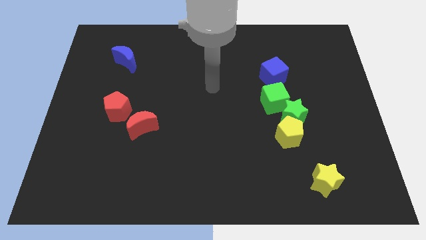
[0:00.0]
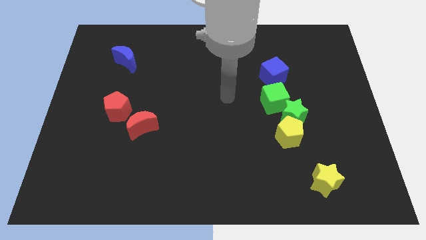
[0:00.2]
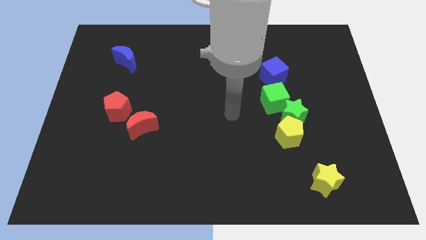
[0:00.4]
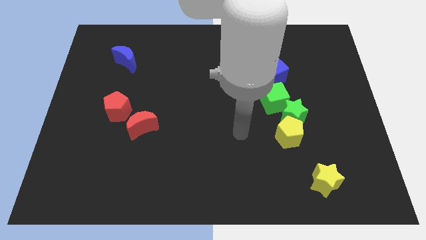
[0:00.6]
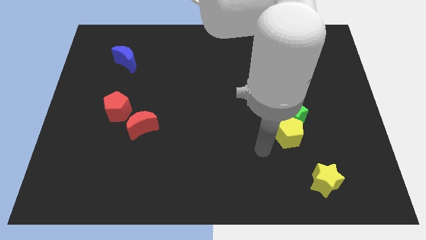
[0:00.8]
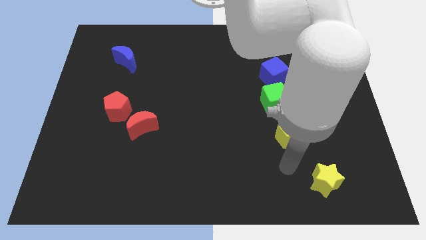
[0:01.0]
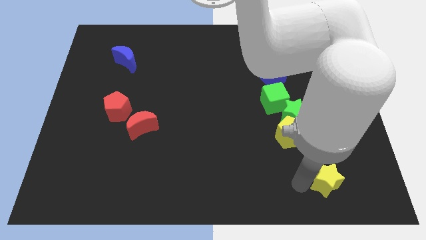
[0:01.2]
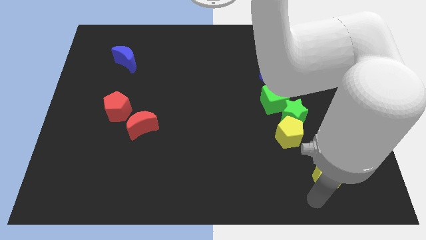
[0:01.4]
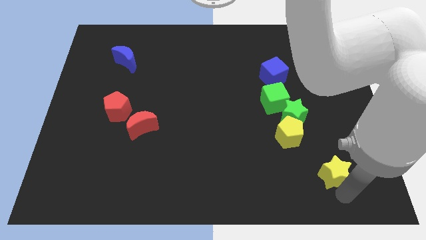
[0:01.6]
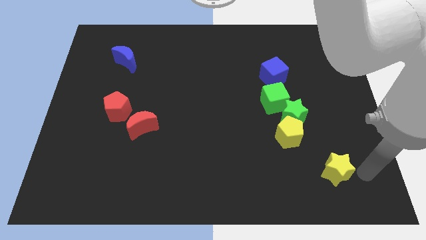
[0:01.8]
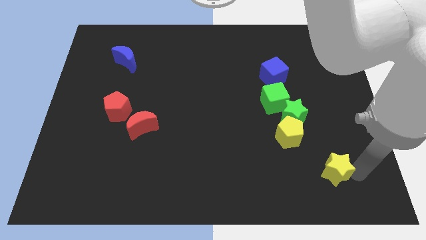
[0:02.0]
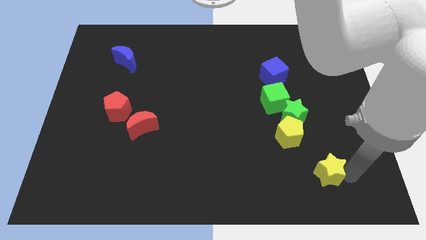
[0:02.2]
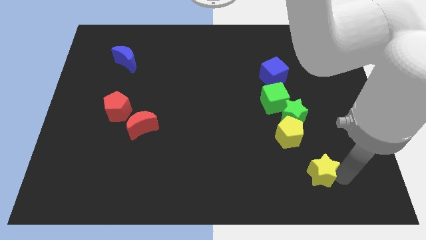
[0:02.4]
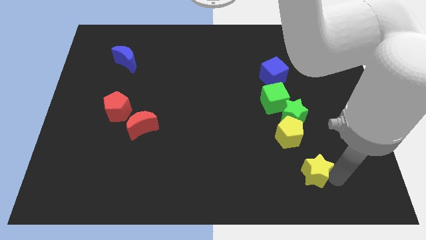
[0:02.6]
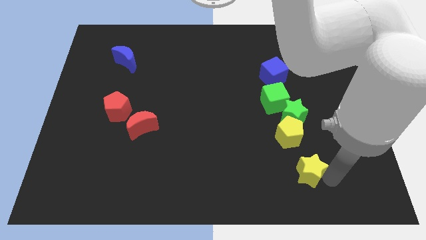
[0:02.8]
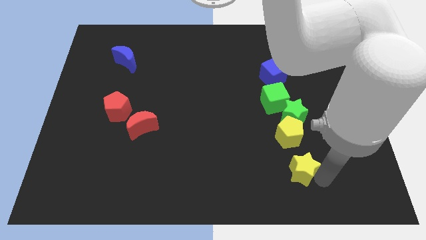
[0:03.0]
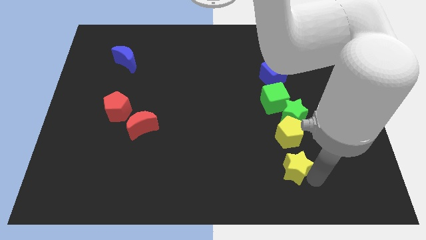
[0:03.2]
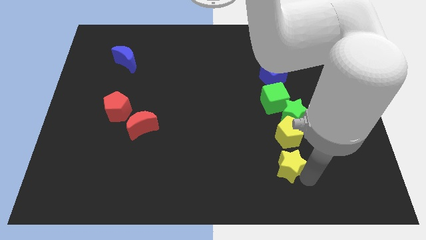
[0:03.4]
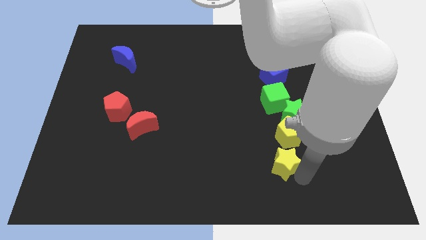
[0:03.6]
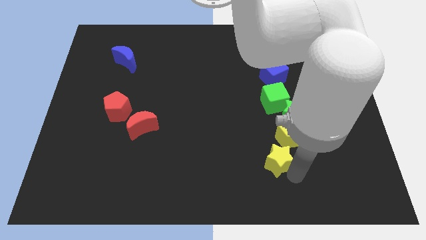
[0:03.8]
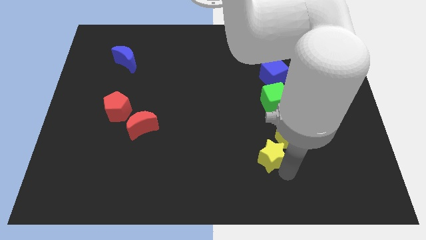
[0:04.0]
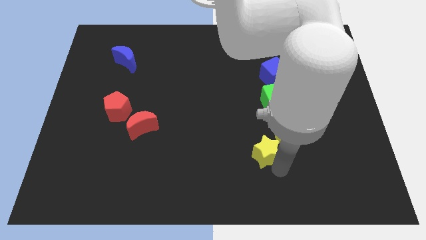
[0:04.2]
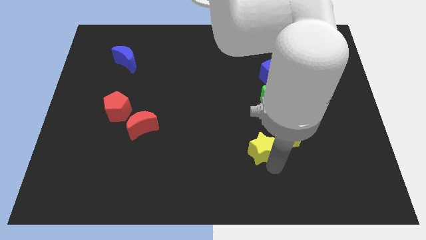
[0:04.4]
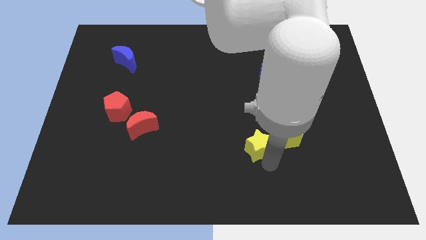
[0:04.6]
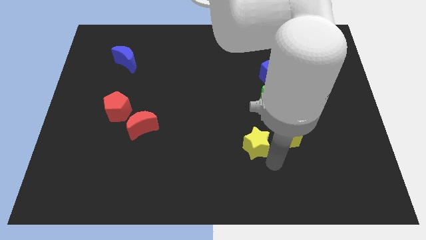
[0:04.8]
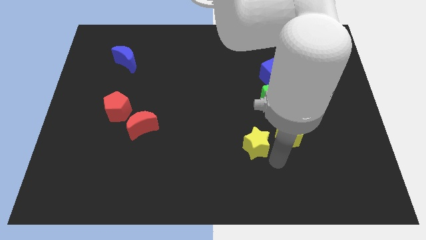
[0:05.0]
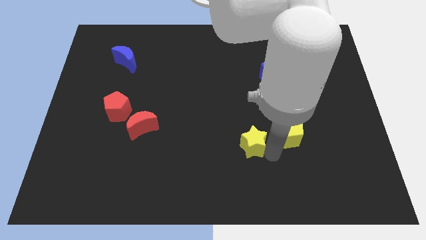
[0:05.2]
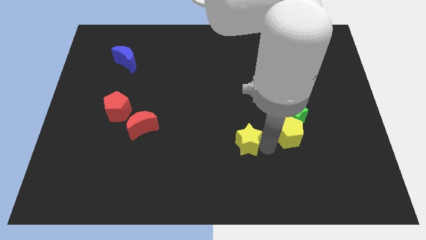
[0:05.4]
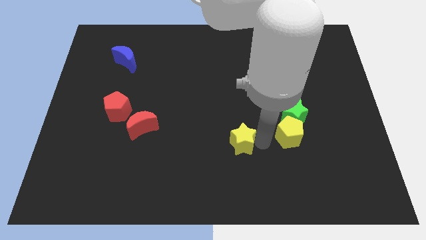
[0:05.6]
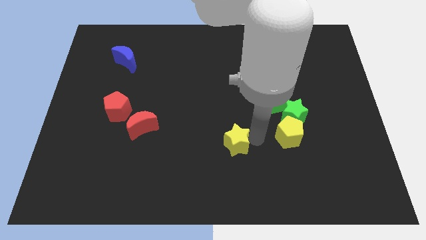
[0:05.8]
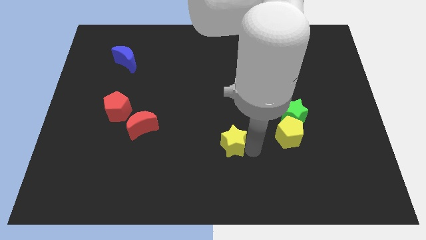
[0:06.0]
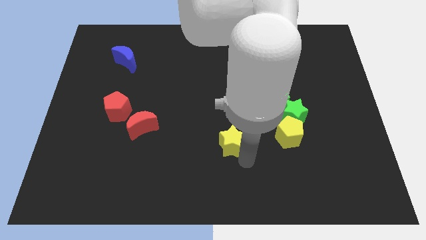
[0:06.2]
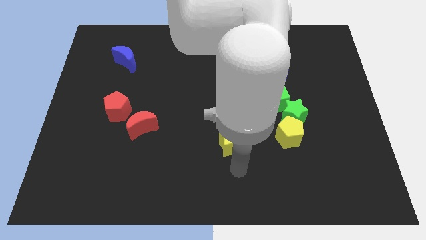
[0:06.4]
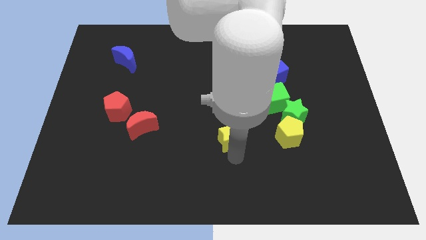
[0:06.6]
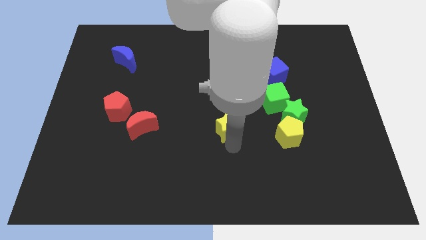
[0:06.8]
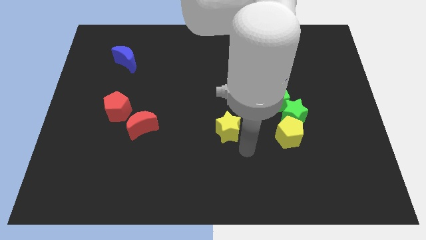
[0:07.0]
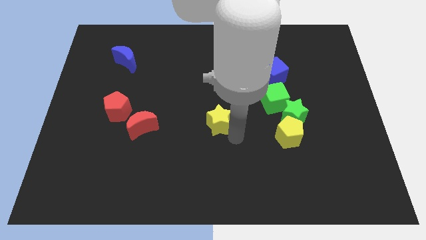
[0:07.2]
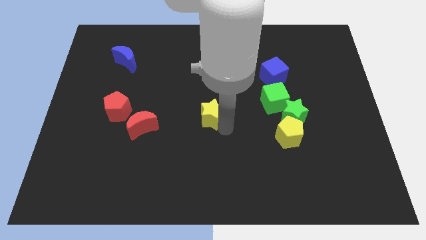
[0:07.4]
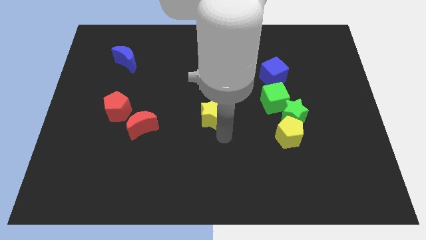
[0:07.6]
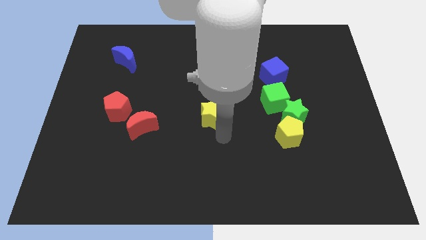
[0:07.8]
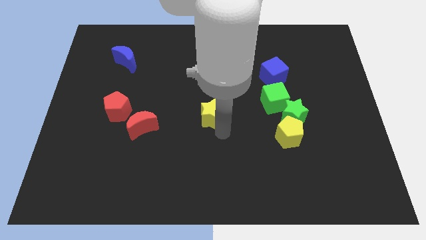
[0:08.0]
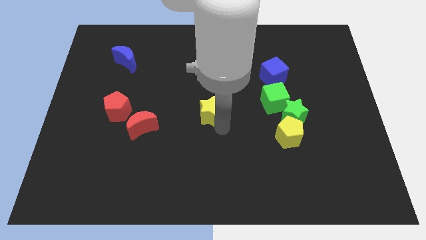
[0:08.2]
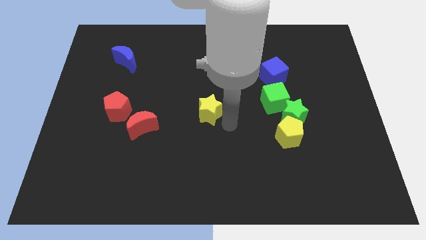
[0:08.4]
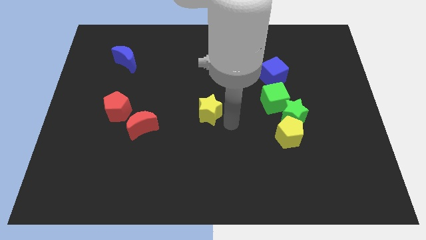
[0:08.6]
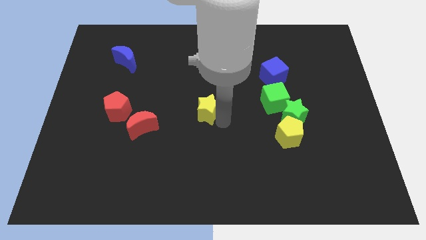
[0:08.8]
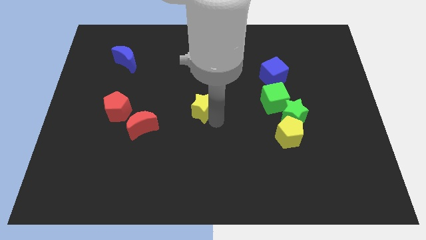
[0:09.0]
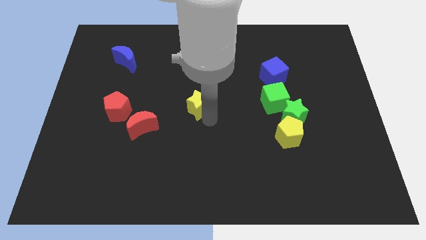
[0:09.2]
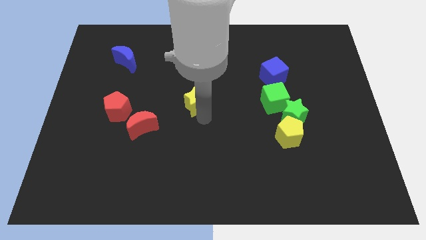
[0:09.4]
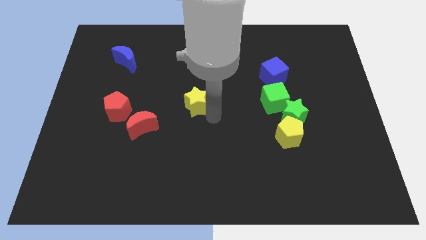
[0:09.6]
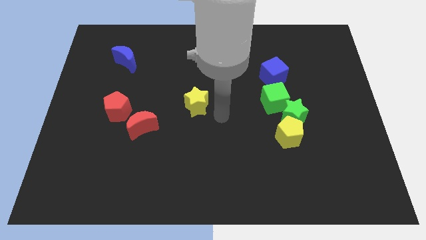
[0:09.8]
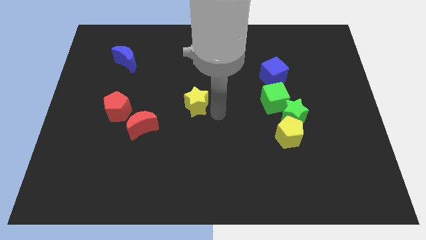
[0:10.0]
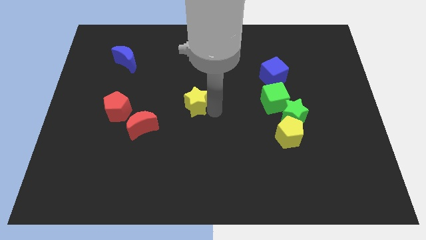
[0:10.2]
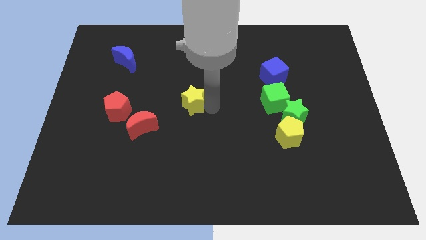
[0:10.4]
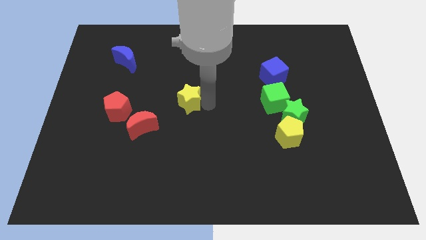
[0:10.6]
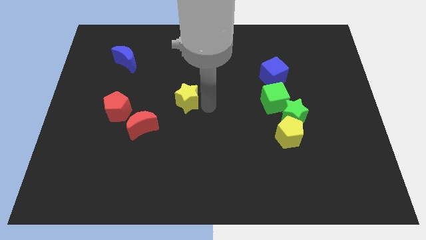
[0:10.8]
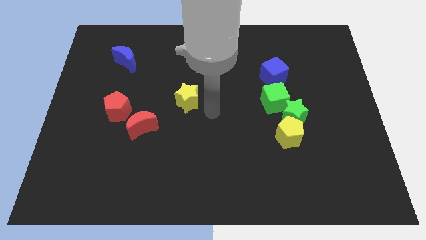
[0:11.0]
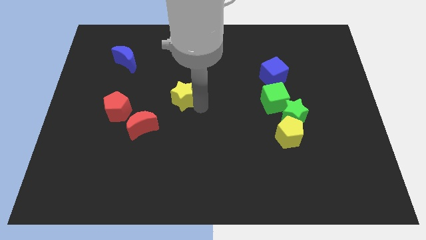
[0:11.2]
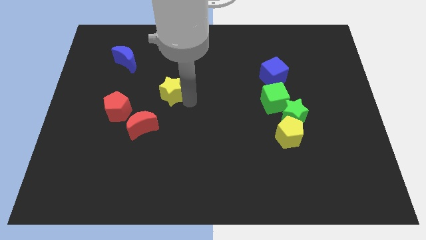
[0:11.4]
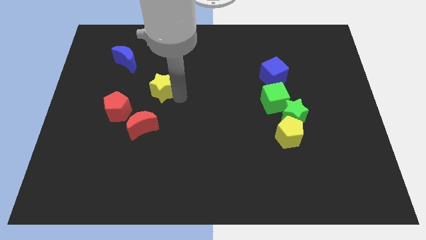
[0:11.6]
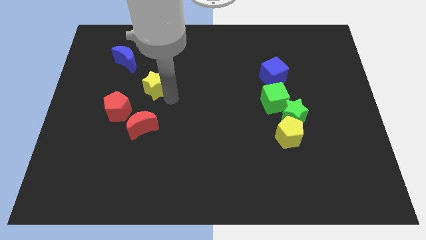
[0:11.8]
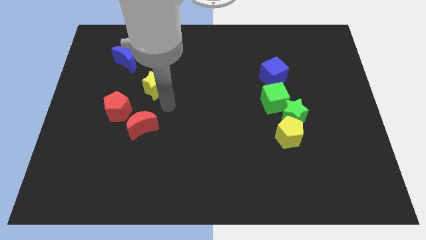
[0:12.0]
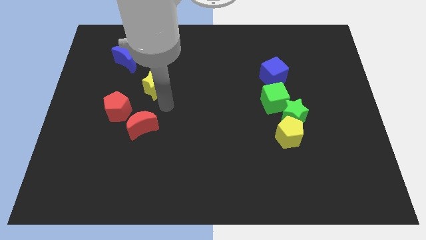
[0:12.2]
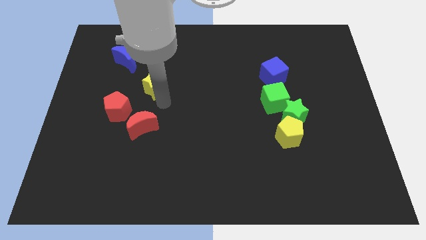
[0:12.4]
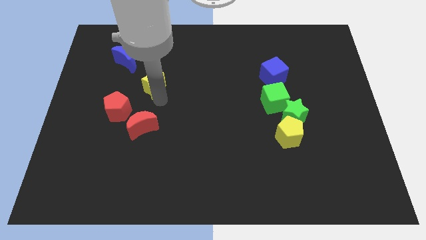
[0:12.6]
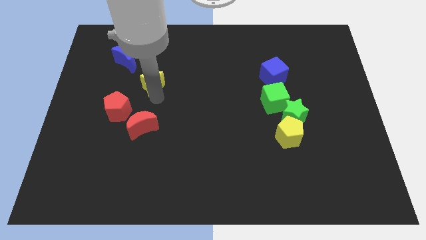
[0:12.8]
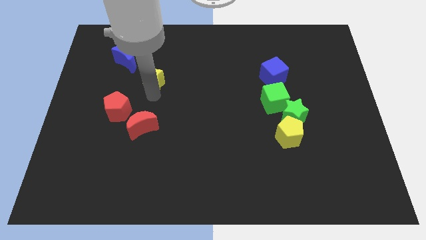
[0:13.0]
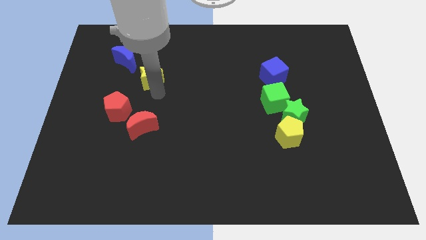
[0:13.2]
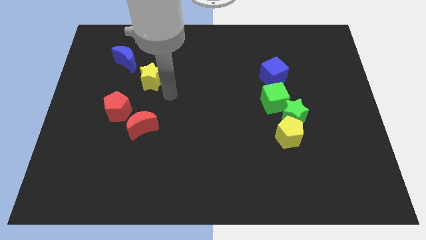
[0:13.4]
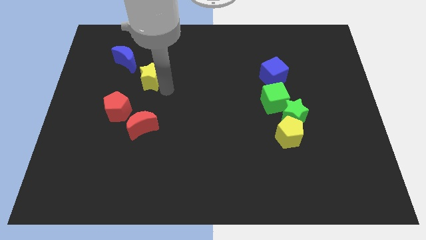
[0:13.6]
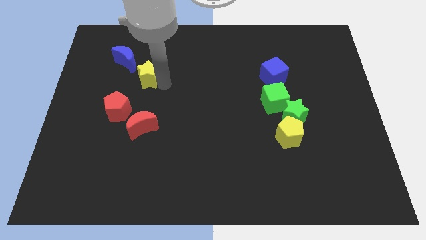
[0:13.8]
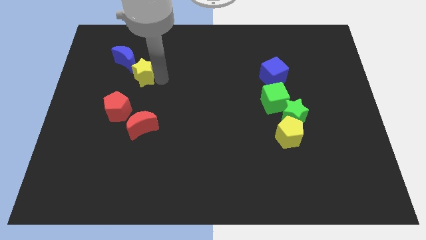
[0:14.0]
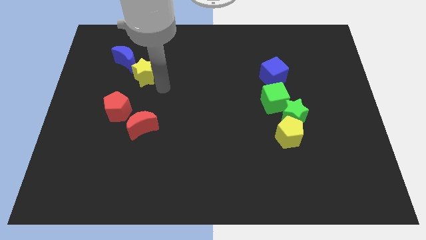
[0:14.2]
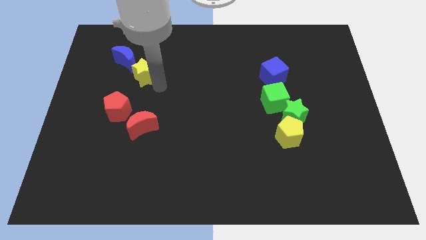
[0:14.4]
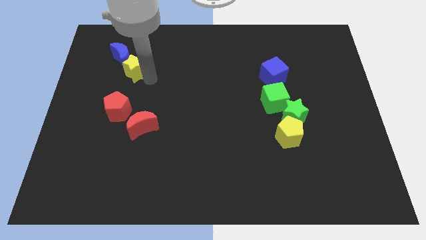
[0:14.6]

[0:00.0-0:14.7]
push the yellow star close to the blue moon

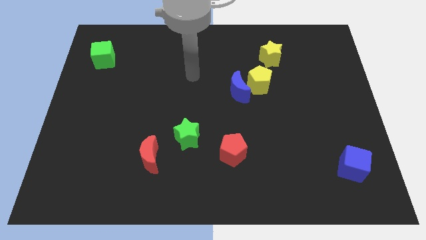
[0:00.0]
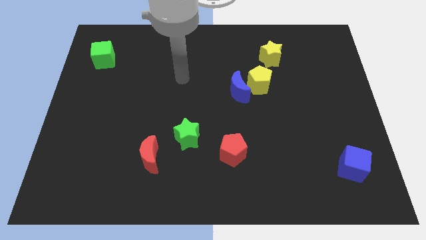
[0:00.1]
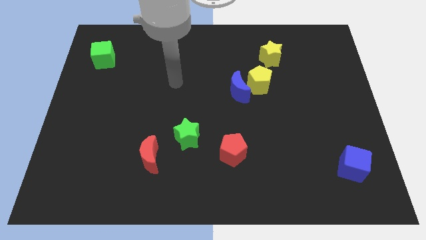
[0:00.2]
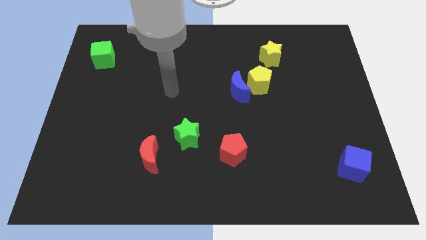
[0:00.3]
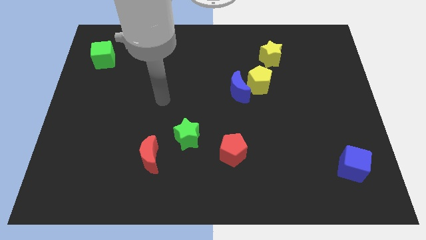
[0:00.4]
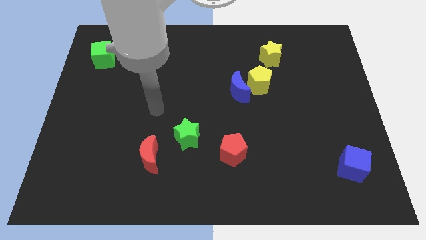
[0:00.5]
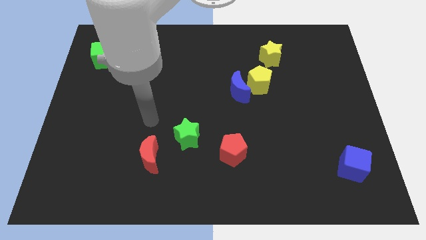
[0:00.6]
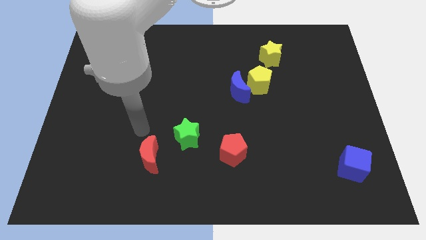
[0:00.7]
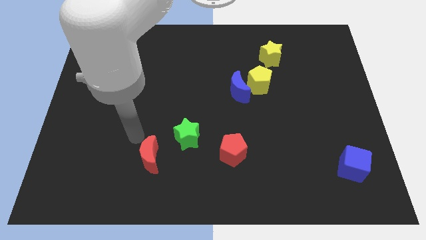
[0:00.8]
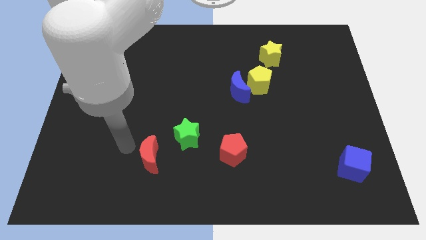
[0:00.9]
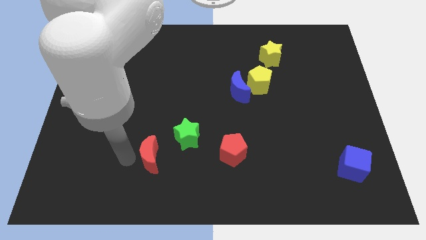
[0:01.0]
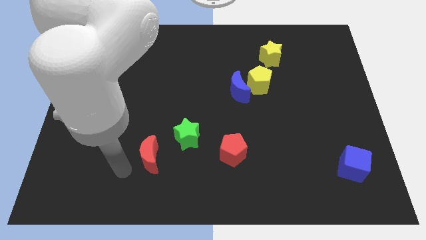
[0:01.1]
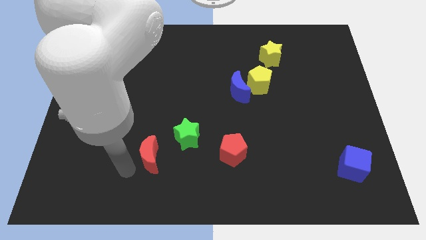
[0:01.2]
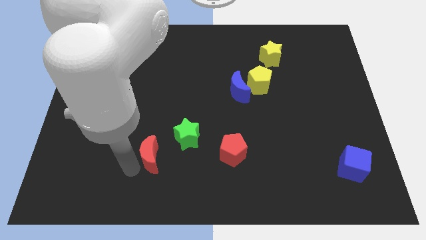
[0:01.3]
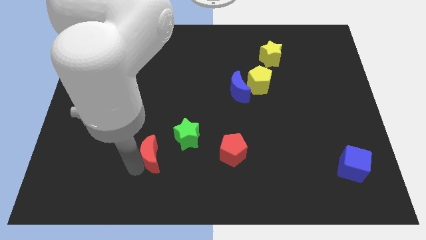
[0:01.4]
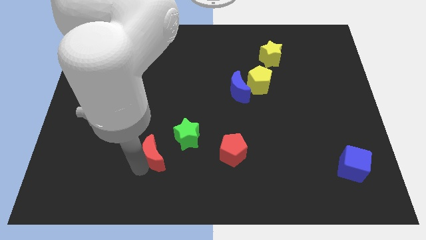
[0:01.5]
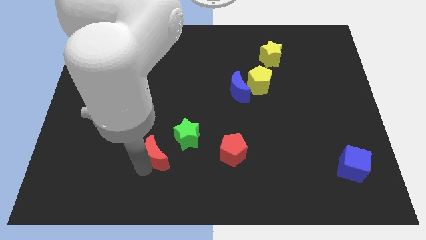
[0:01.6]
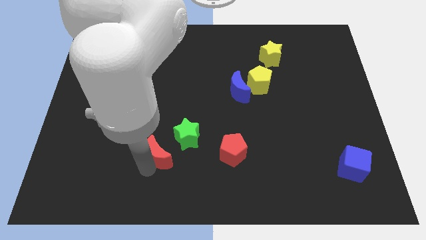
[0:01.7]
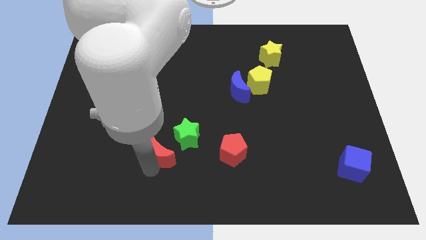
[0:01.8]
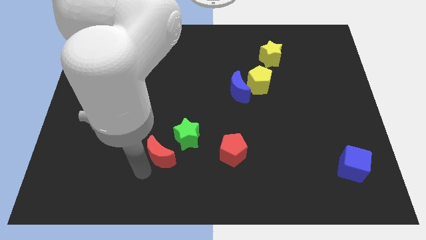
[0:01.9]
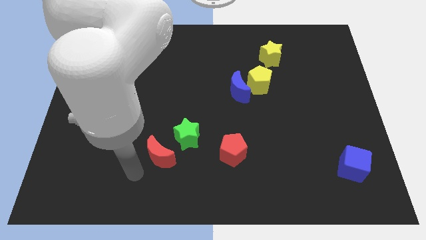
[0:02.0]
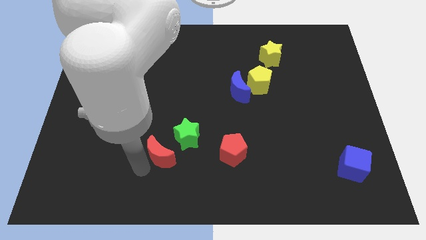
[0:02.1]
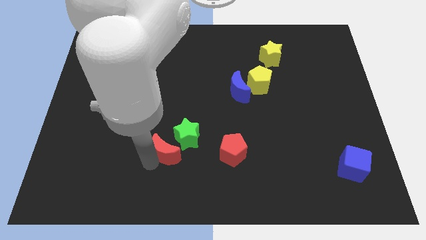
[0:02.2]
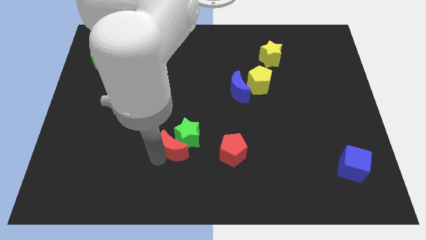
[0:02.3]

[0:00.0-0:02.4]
move the red moon close to the green star
